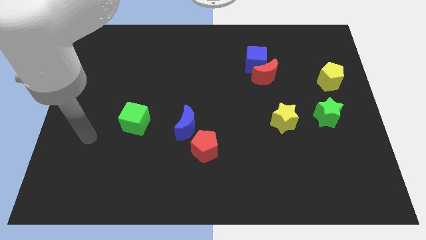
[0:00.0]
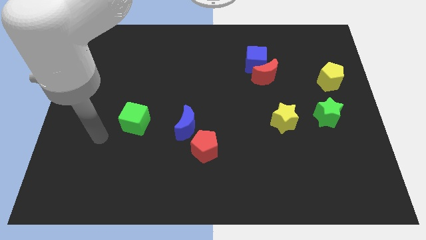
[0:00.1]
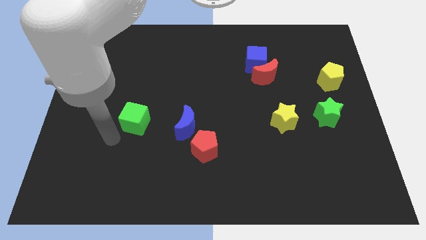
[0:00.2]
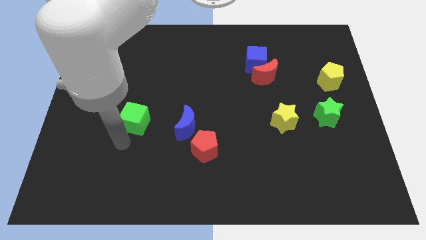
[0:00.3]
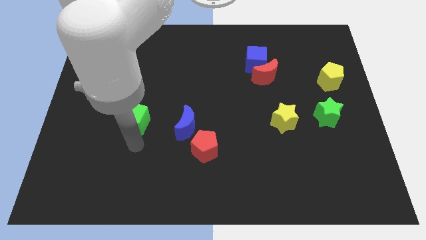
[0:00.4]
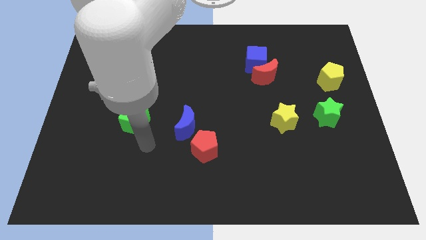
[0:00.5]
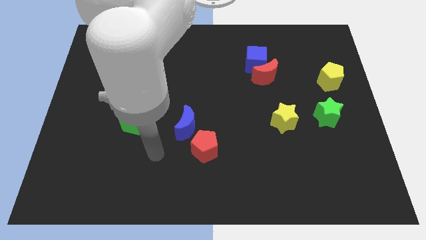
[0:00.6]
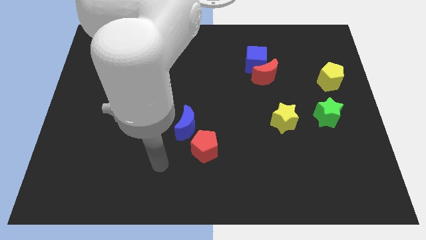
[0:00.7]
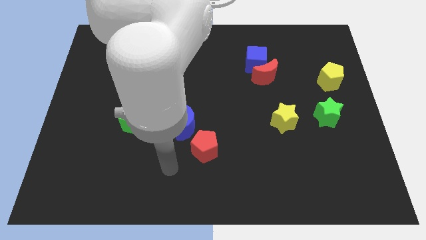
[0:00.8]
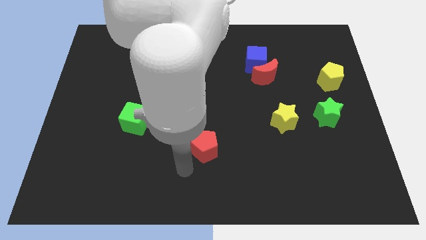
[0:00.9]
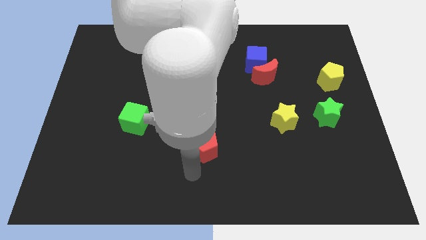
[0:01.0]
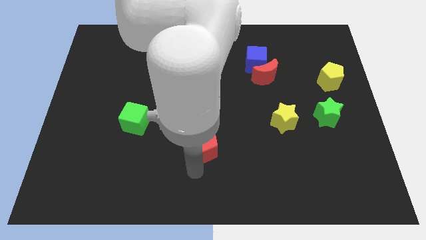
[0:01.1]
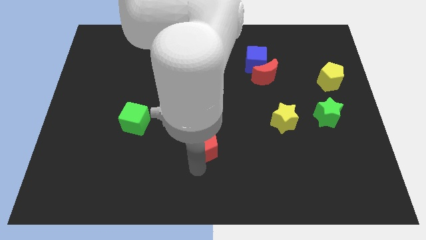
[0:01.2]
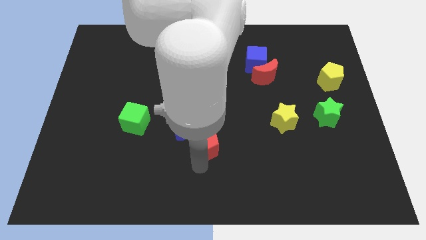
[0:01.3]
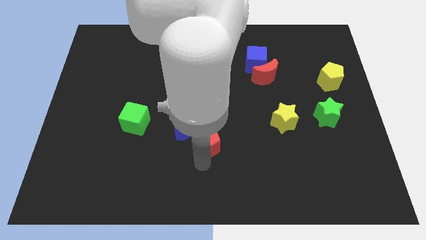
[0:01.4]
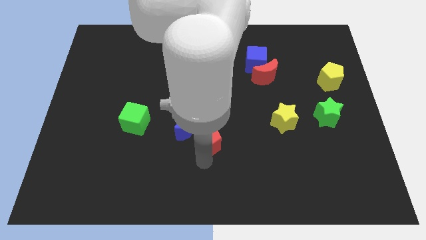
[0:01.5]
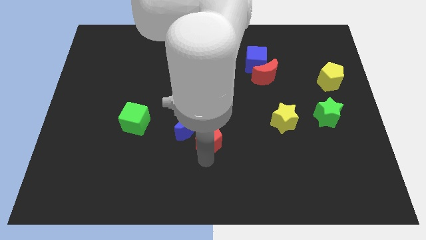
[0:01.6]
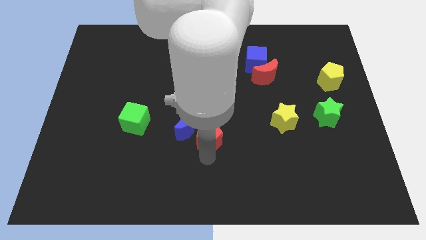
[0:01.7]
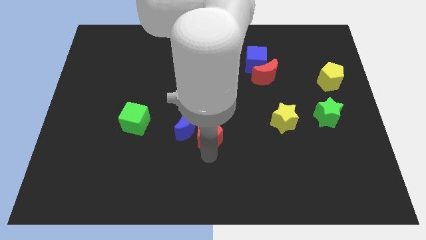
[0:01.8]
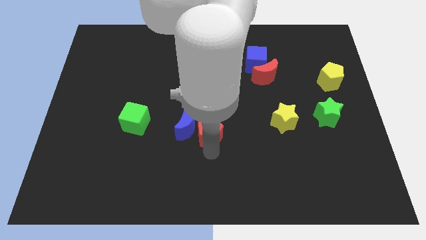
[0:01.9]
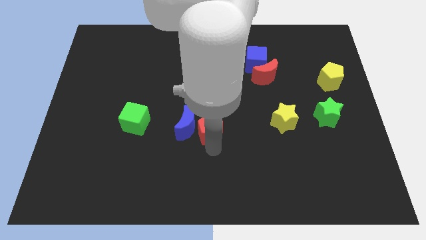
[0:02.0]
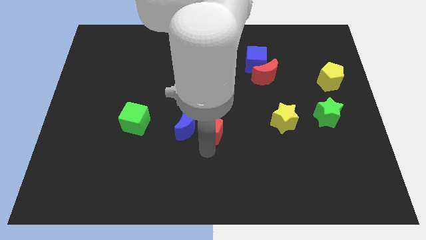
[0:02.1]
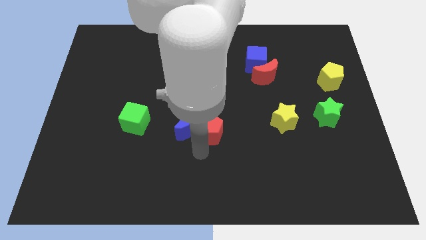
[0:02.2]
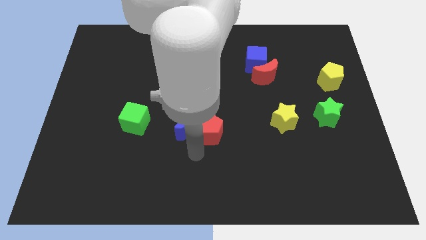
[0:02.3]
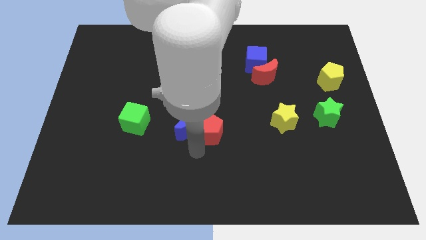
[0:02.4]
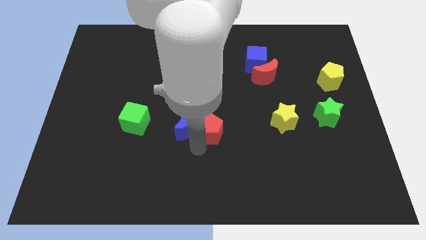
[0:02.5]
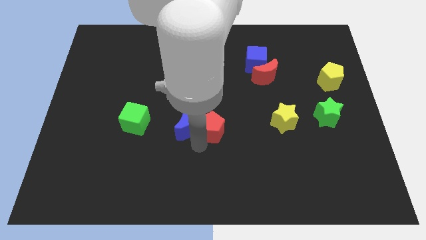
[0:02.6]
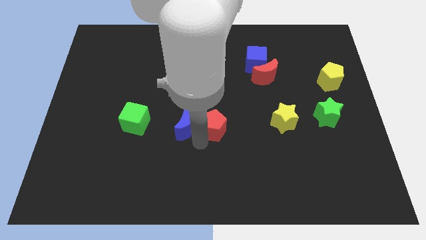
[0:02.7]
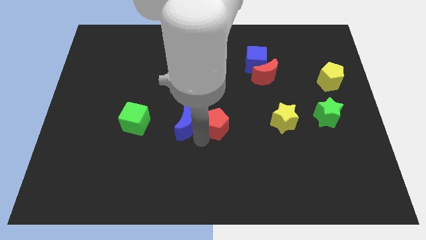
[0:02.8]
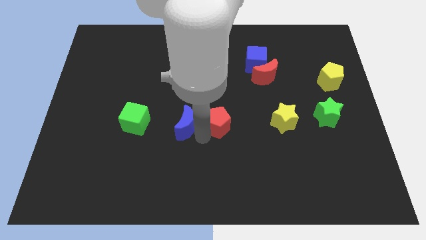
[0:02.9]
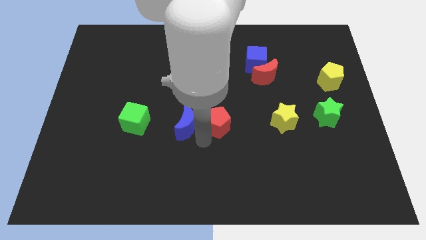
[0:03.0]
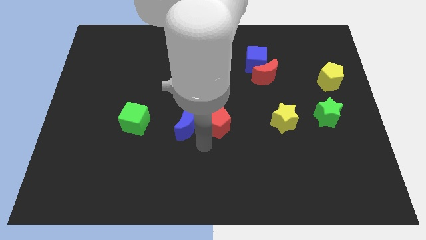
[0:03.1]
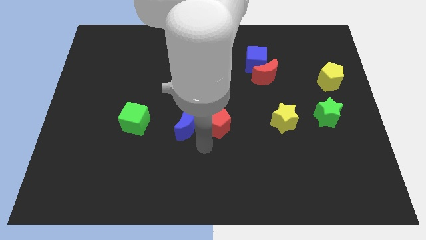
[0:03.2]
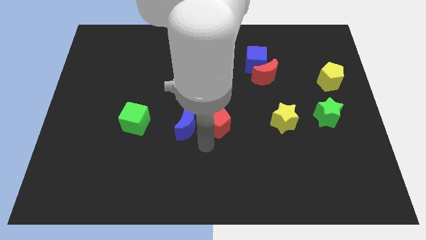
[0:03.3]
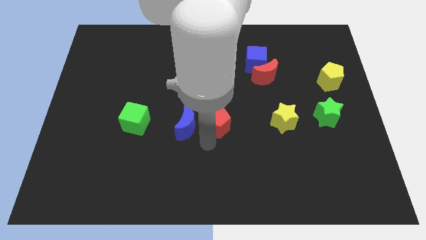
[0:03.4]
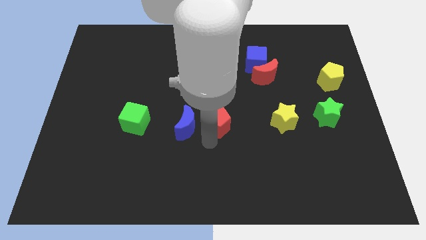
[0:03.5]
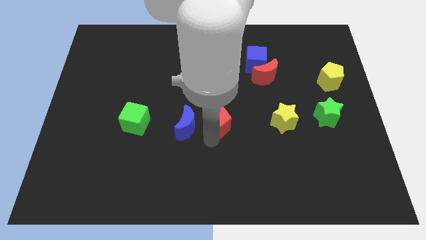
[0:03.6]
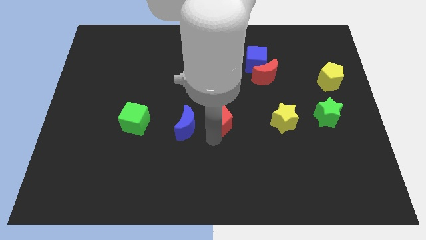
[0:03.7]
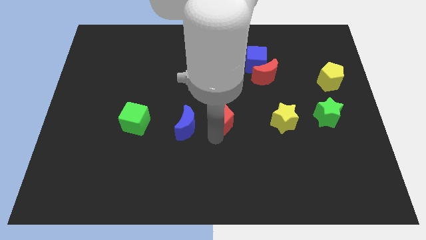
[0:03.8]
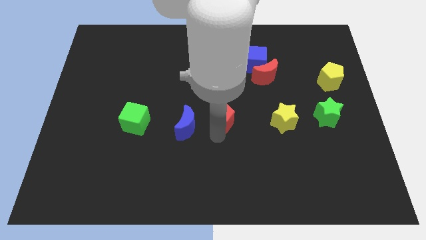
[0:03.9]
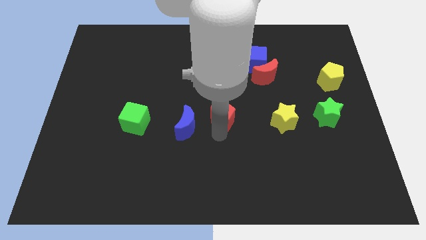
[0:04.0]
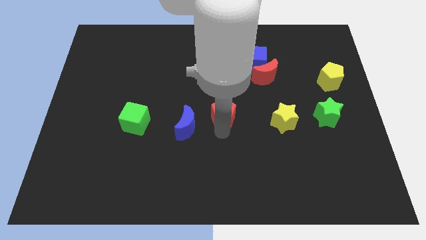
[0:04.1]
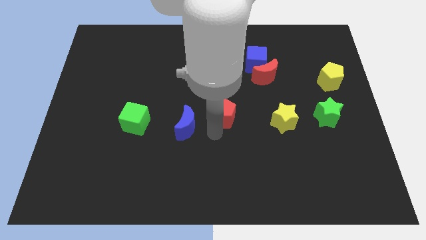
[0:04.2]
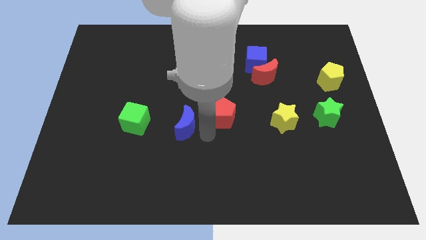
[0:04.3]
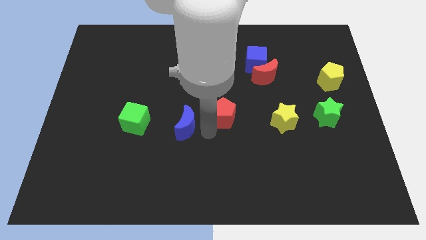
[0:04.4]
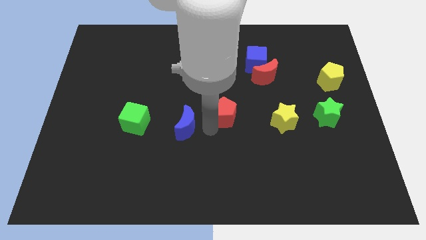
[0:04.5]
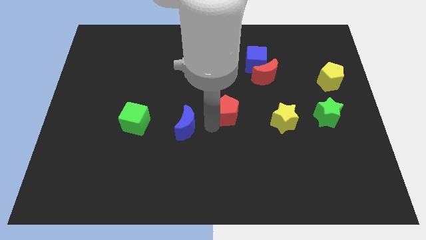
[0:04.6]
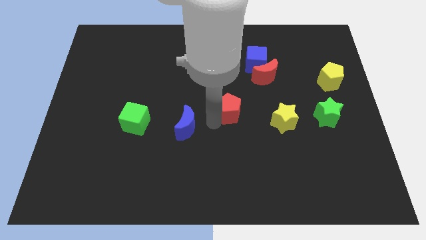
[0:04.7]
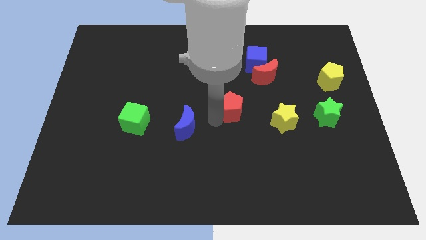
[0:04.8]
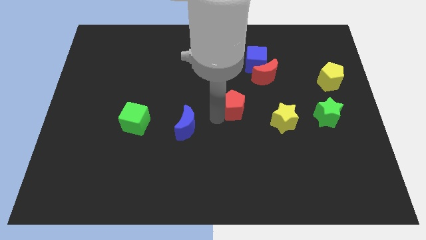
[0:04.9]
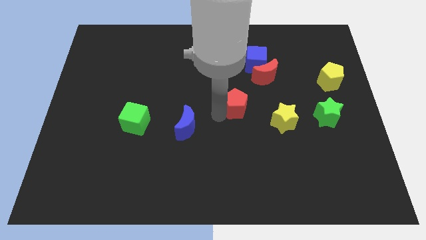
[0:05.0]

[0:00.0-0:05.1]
move the red pentagon to the bottom left side of the red moon

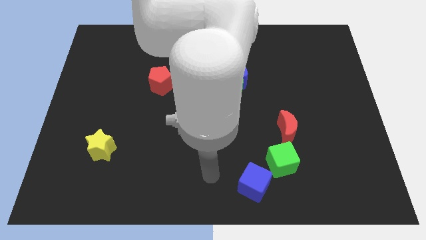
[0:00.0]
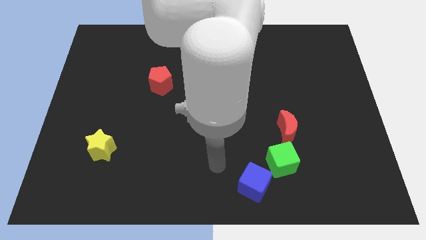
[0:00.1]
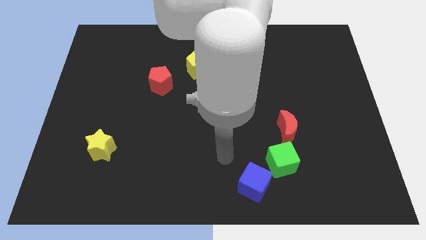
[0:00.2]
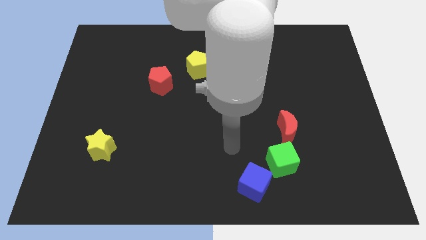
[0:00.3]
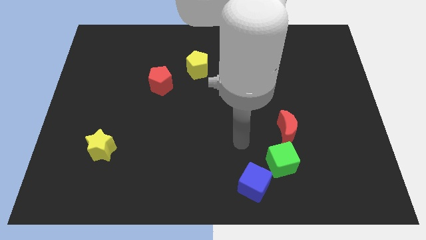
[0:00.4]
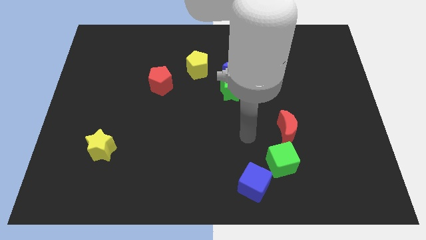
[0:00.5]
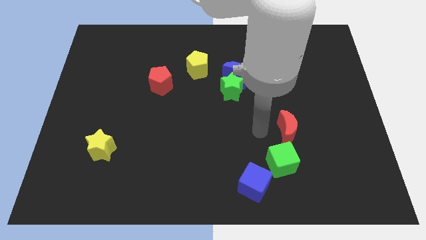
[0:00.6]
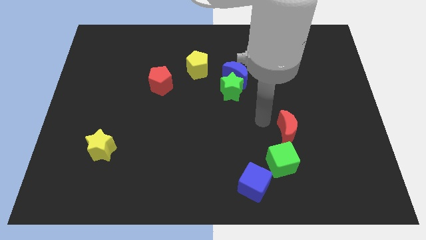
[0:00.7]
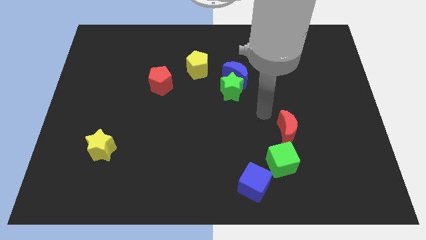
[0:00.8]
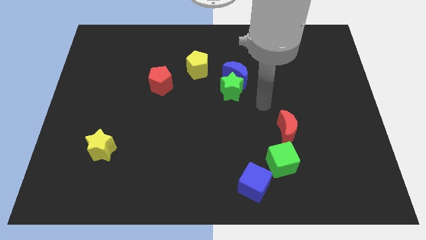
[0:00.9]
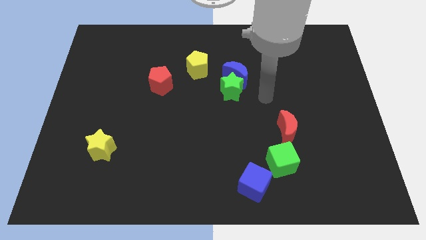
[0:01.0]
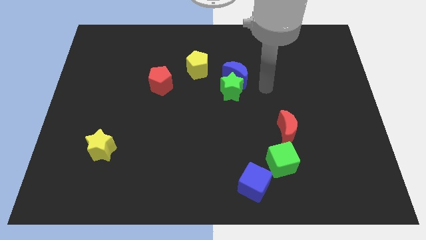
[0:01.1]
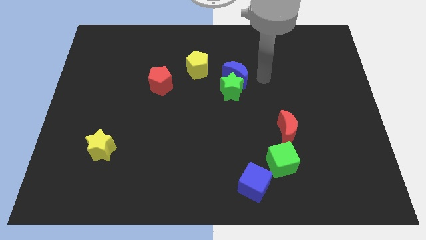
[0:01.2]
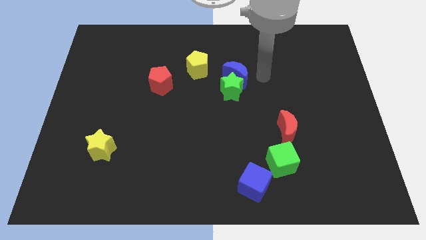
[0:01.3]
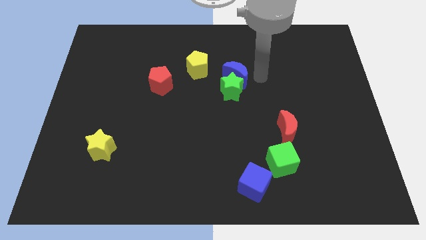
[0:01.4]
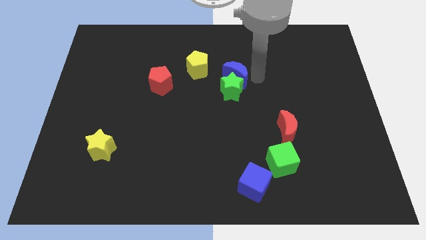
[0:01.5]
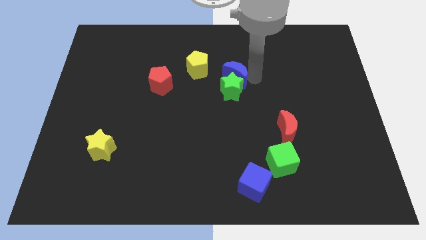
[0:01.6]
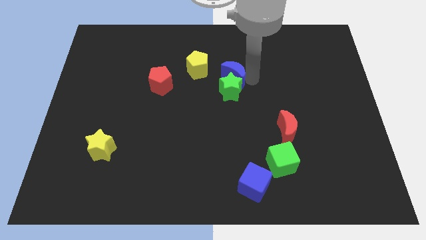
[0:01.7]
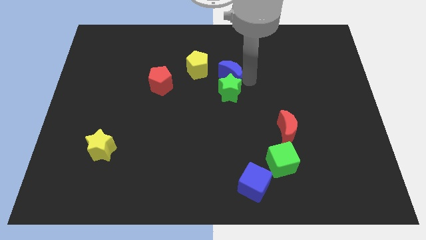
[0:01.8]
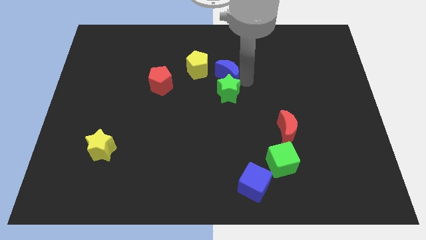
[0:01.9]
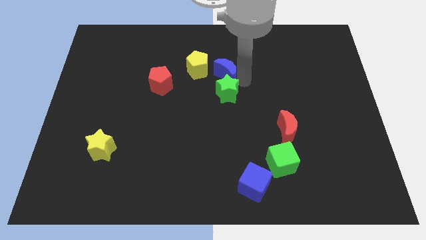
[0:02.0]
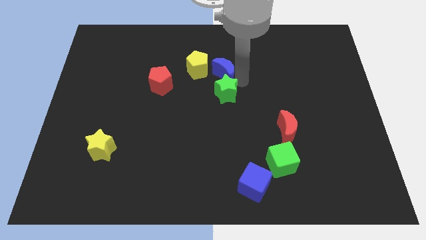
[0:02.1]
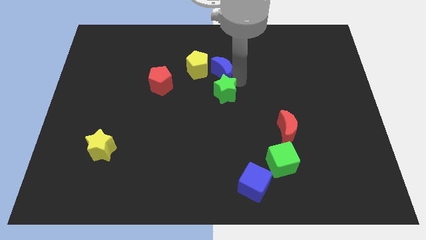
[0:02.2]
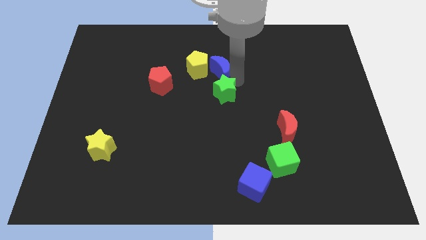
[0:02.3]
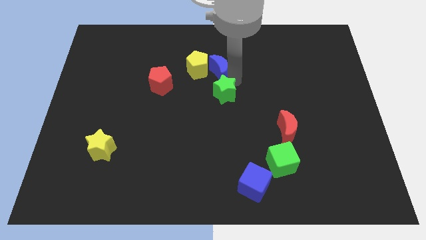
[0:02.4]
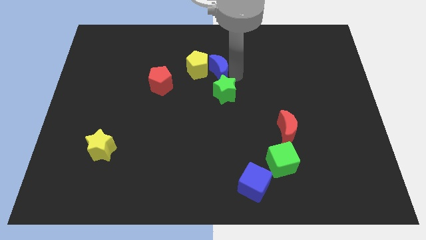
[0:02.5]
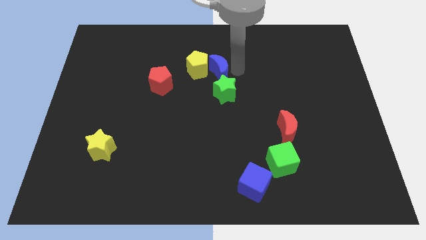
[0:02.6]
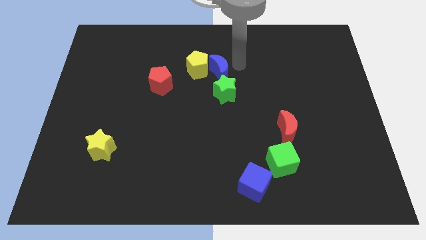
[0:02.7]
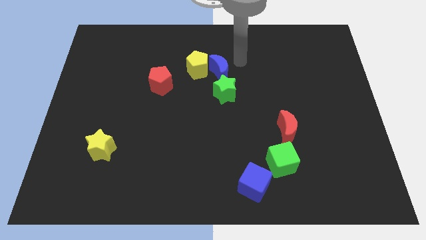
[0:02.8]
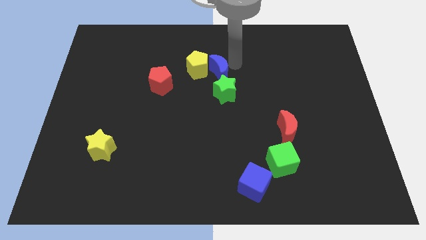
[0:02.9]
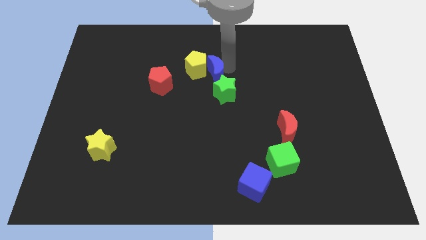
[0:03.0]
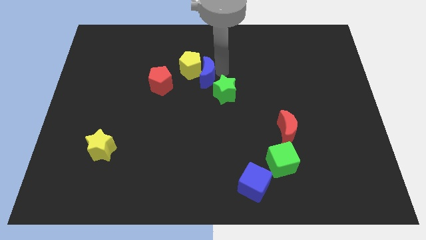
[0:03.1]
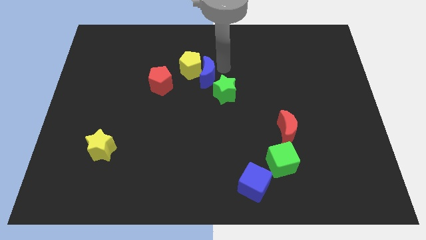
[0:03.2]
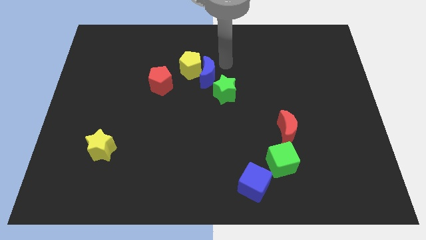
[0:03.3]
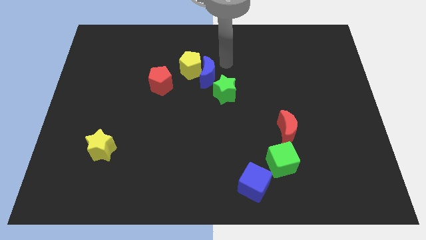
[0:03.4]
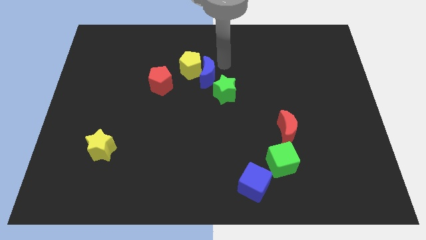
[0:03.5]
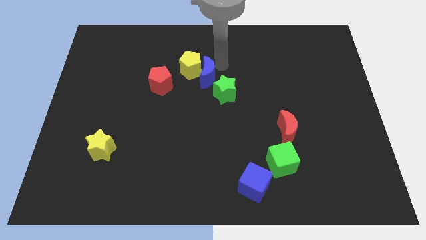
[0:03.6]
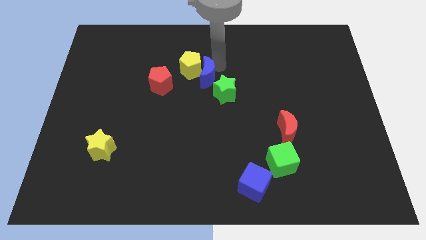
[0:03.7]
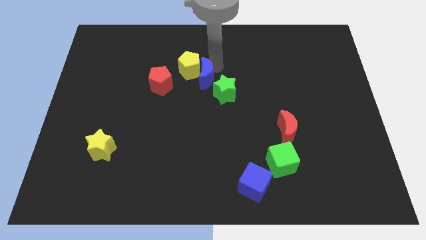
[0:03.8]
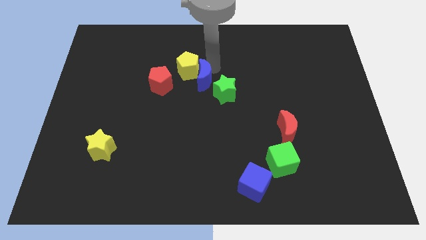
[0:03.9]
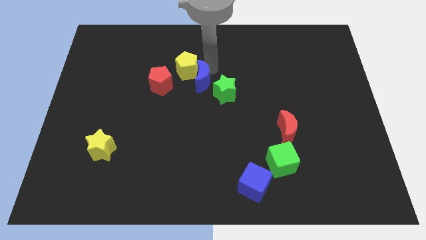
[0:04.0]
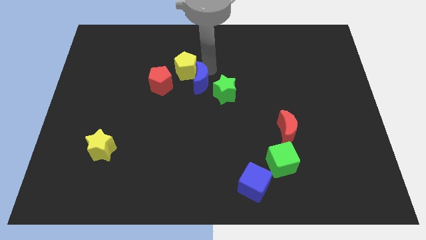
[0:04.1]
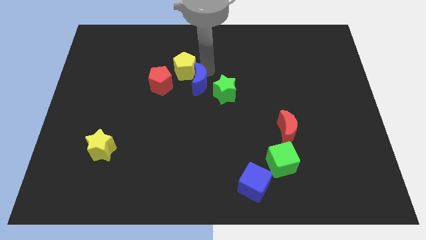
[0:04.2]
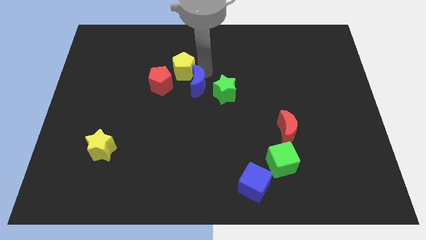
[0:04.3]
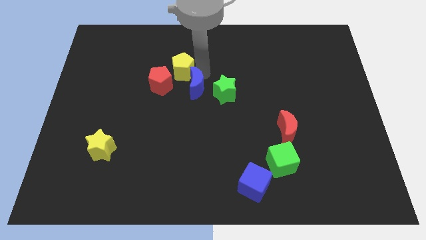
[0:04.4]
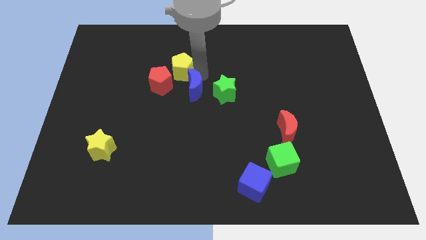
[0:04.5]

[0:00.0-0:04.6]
put the blue moon to the bottom right of the red pentagon
